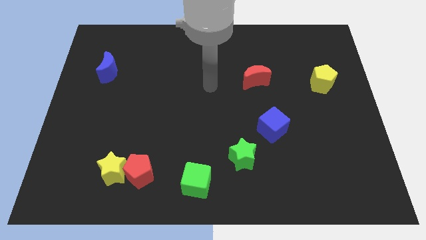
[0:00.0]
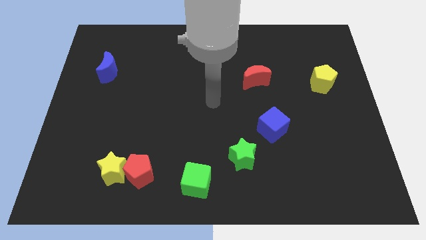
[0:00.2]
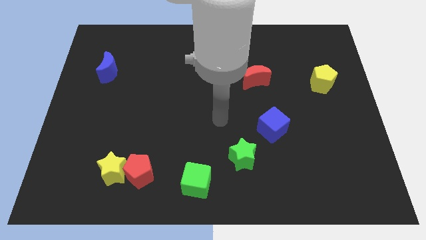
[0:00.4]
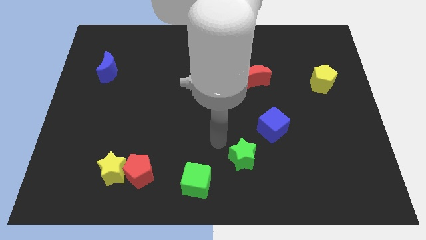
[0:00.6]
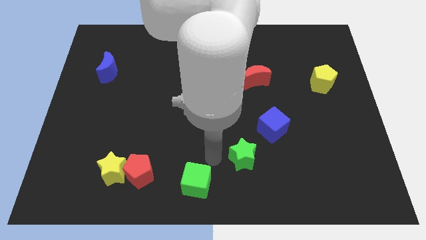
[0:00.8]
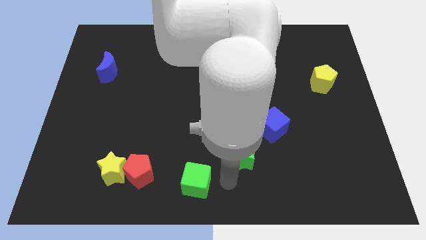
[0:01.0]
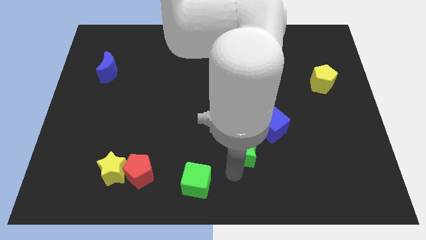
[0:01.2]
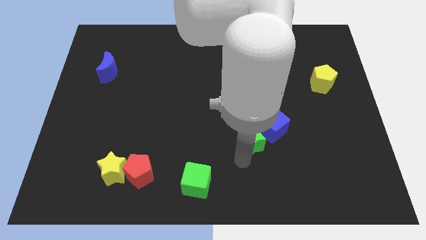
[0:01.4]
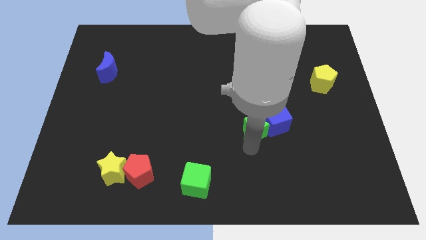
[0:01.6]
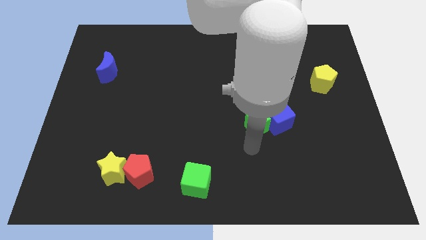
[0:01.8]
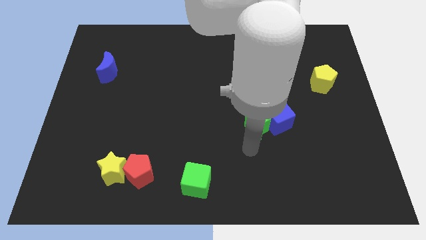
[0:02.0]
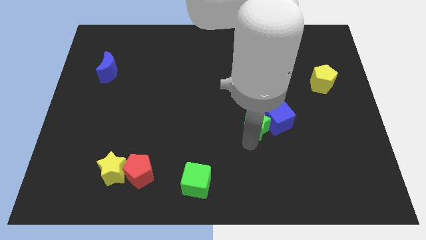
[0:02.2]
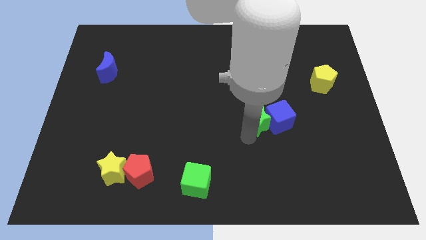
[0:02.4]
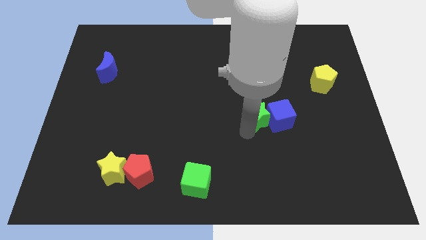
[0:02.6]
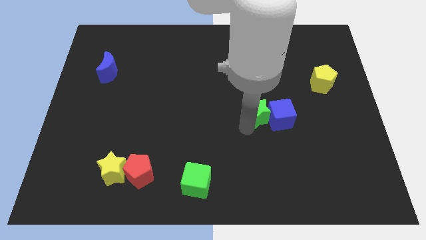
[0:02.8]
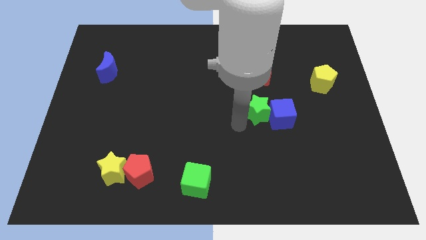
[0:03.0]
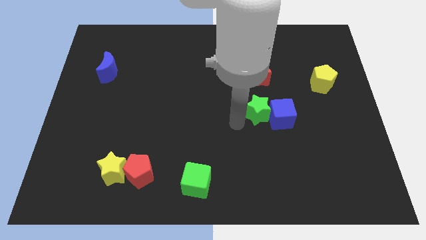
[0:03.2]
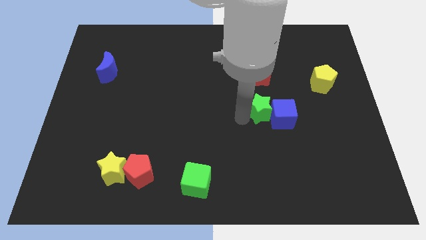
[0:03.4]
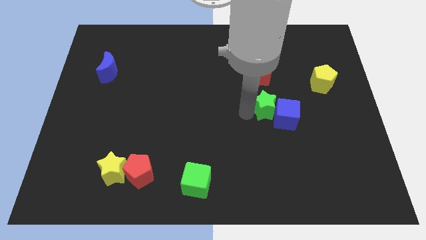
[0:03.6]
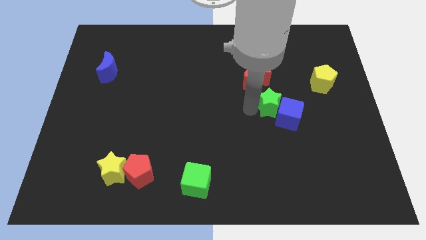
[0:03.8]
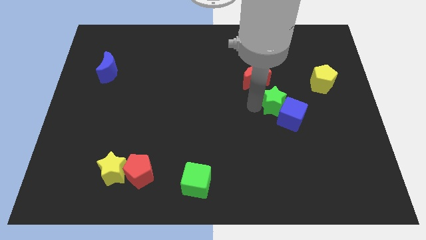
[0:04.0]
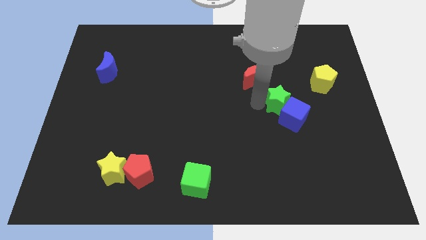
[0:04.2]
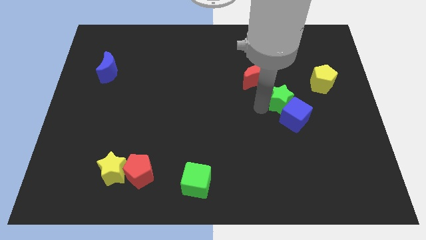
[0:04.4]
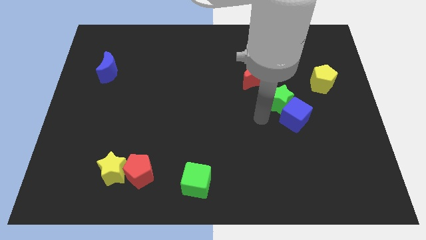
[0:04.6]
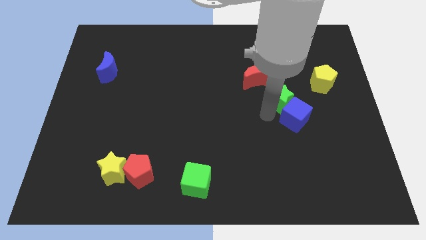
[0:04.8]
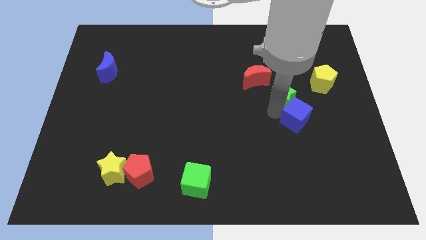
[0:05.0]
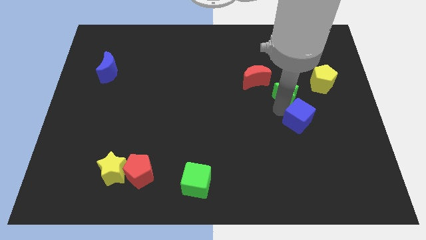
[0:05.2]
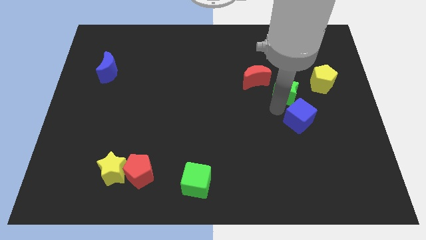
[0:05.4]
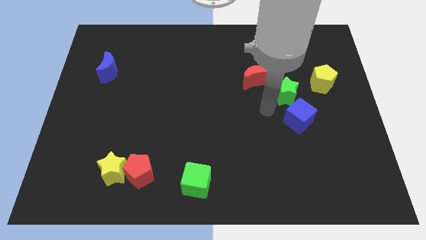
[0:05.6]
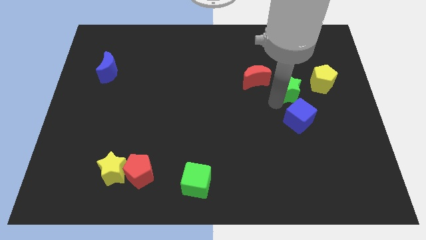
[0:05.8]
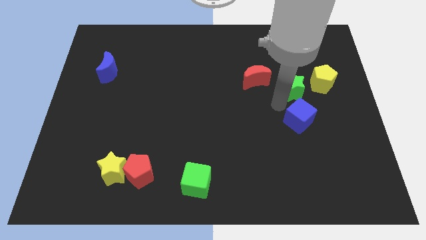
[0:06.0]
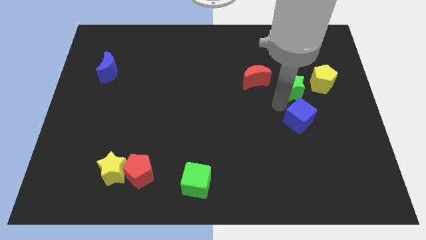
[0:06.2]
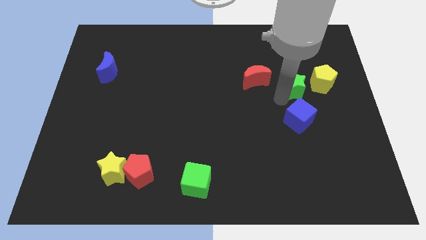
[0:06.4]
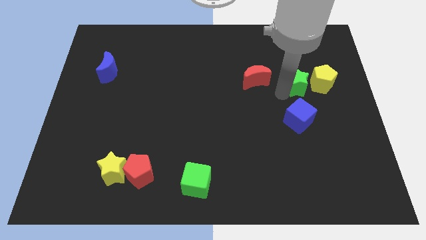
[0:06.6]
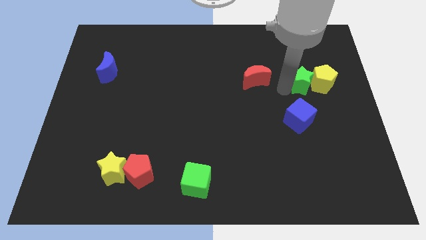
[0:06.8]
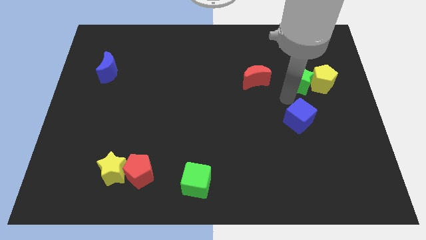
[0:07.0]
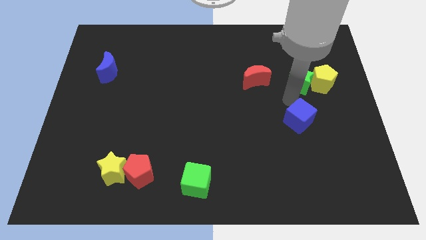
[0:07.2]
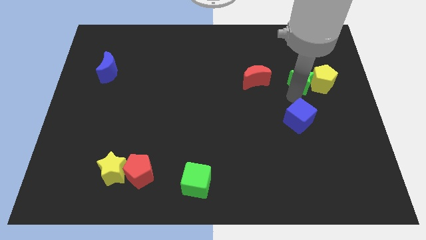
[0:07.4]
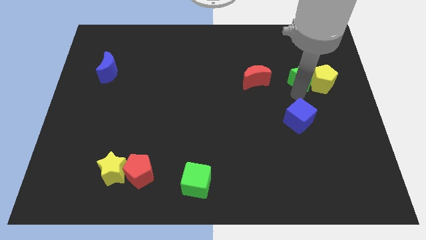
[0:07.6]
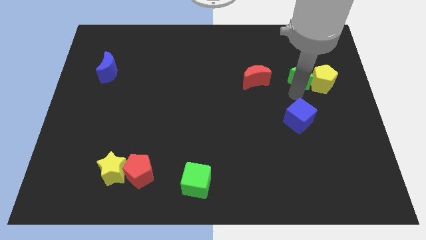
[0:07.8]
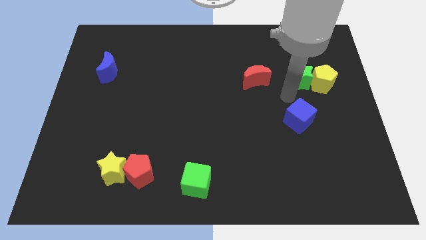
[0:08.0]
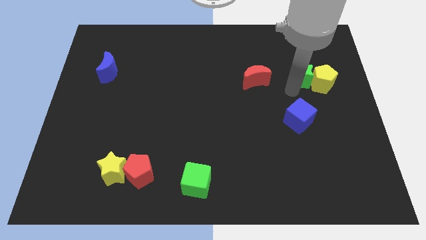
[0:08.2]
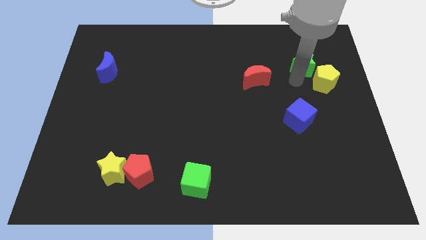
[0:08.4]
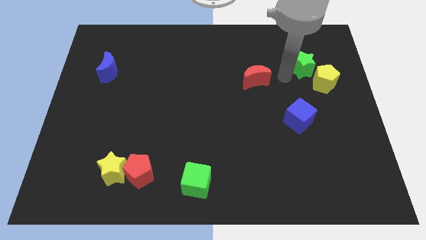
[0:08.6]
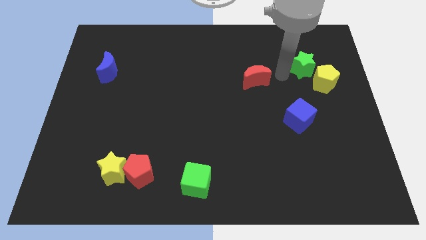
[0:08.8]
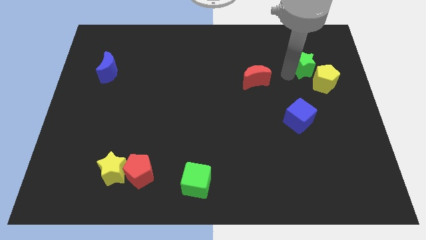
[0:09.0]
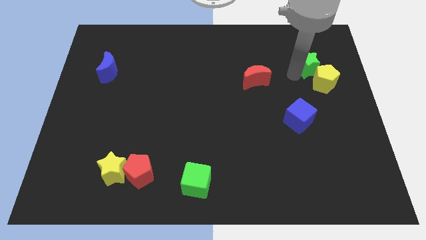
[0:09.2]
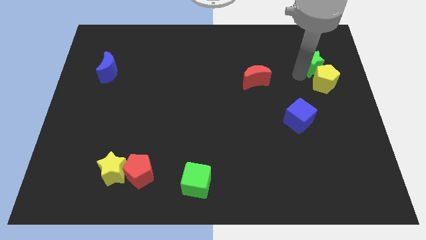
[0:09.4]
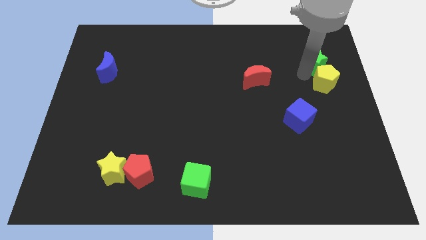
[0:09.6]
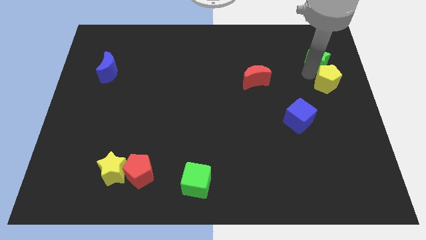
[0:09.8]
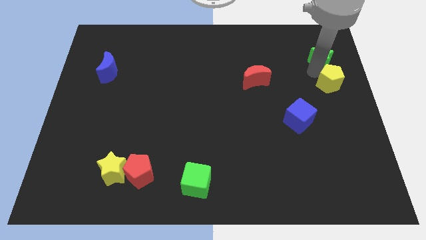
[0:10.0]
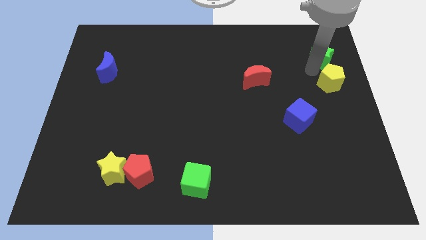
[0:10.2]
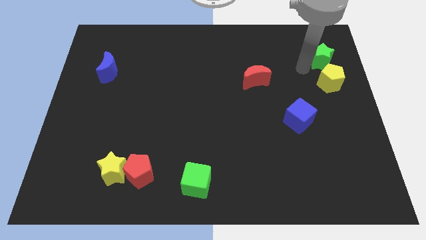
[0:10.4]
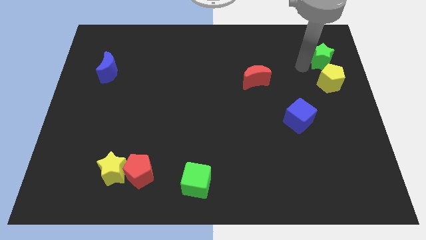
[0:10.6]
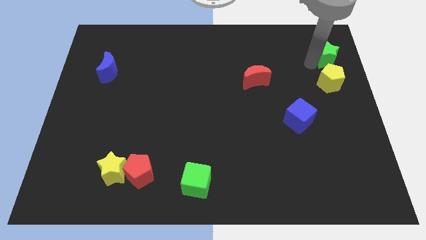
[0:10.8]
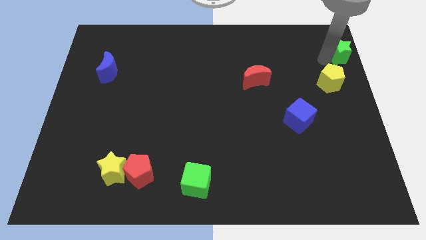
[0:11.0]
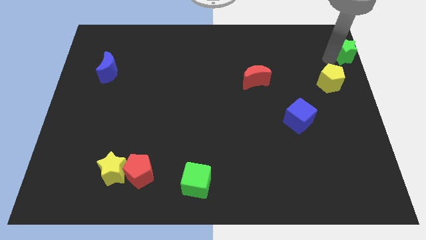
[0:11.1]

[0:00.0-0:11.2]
slide the green star to the top right corner
